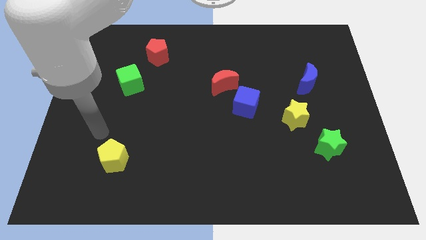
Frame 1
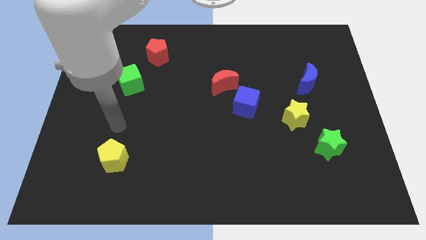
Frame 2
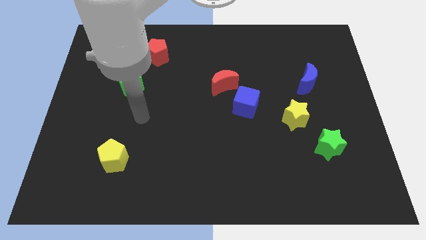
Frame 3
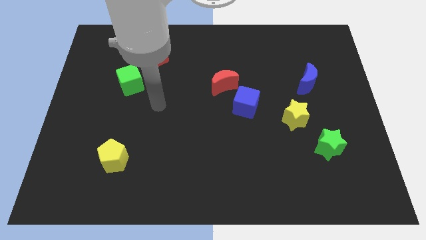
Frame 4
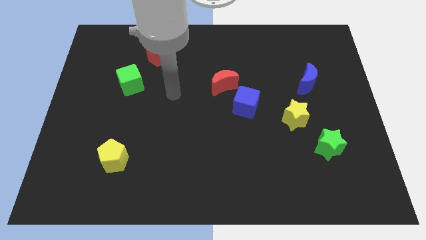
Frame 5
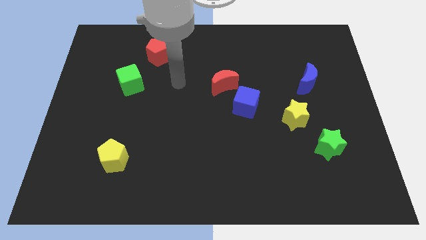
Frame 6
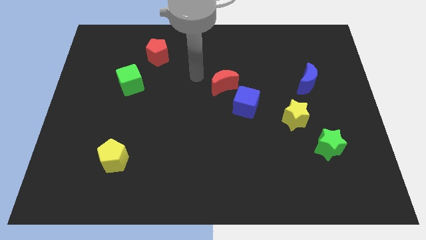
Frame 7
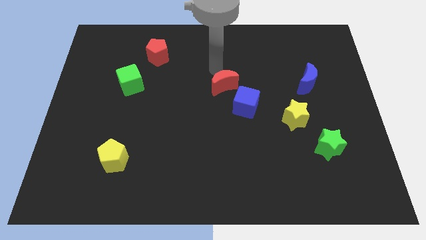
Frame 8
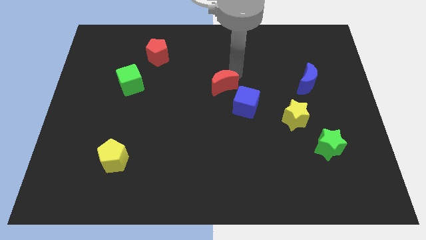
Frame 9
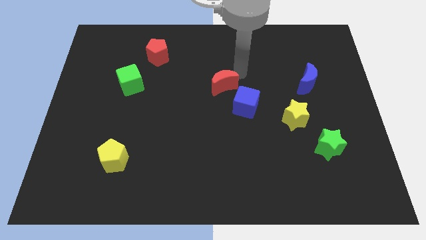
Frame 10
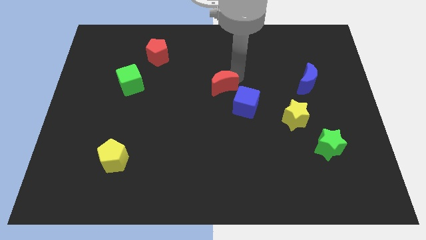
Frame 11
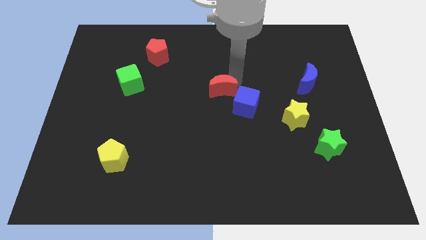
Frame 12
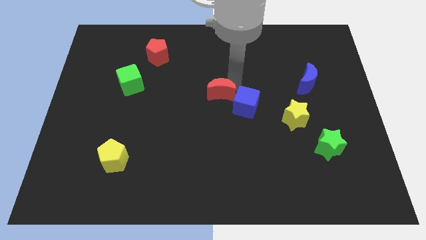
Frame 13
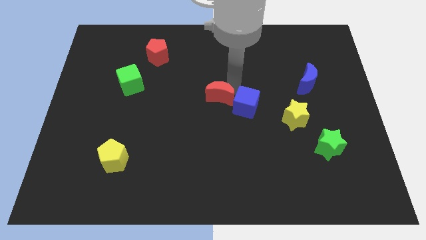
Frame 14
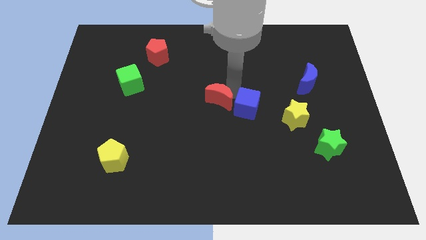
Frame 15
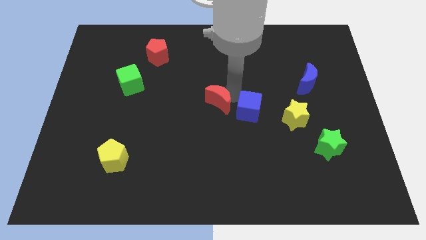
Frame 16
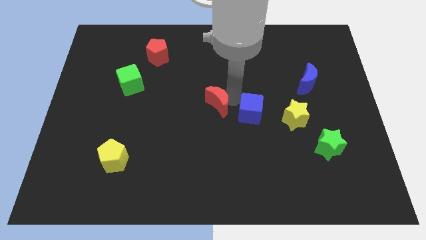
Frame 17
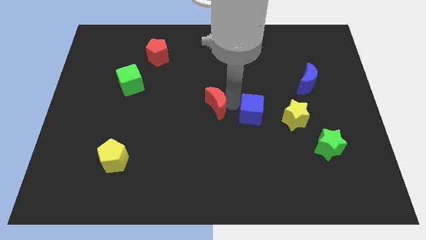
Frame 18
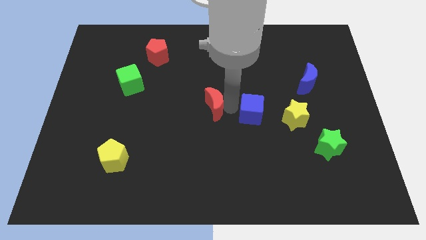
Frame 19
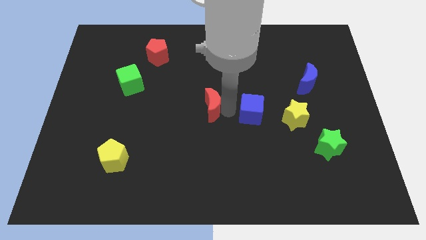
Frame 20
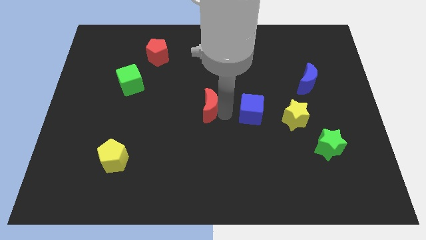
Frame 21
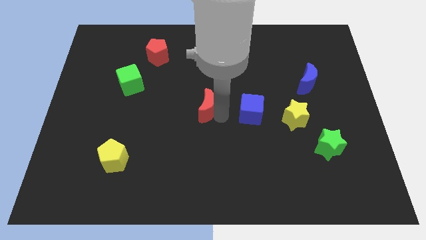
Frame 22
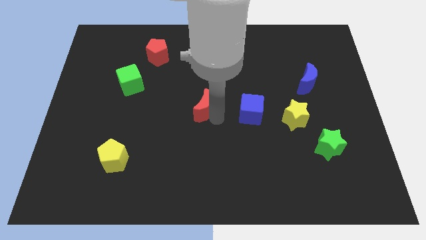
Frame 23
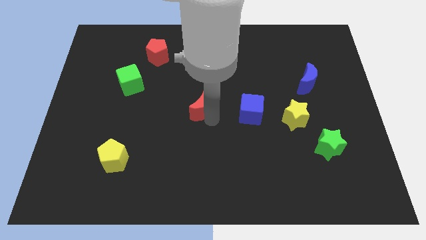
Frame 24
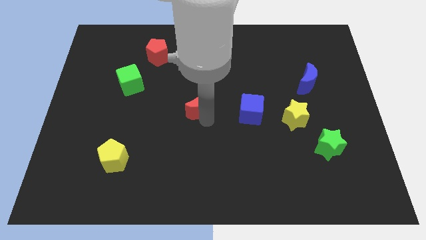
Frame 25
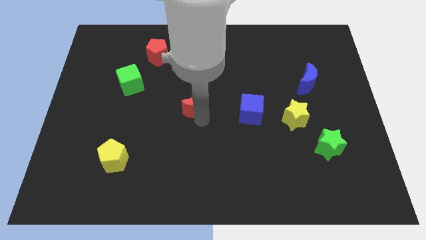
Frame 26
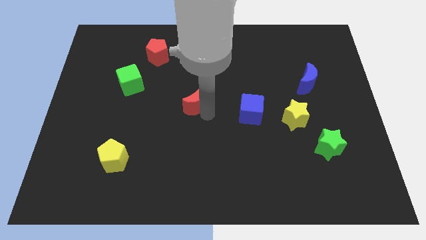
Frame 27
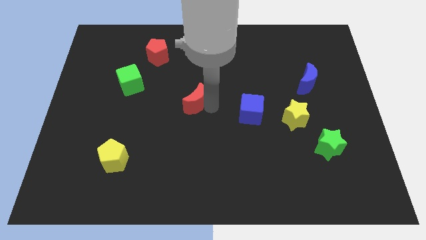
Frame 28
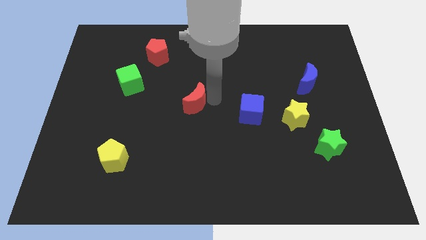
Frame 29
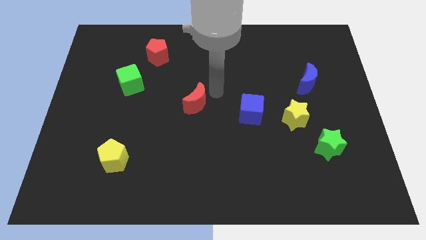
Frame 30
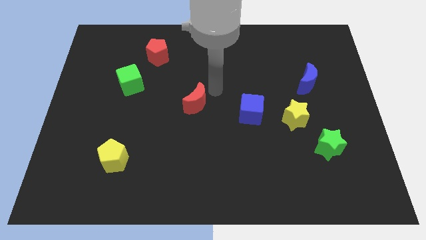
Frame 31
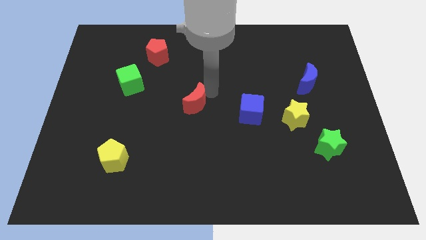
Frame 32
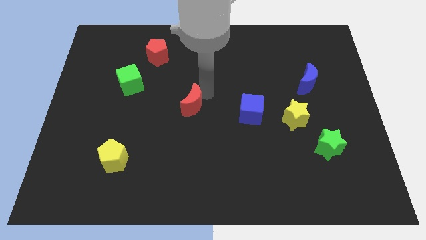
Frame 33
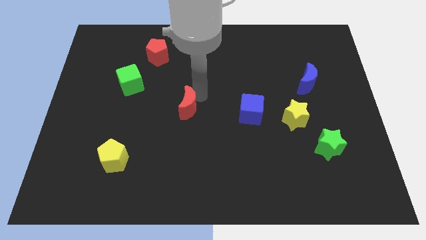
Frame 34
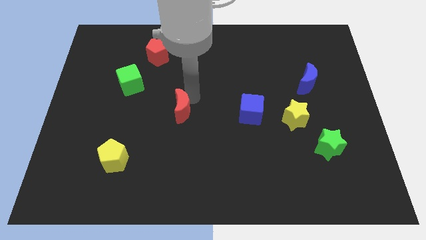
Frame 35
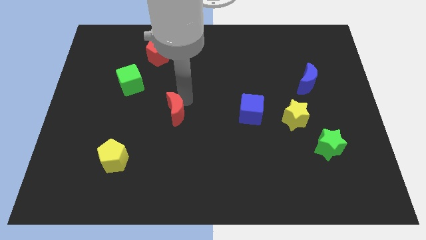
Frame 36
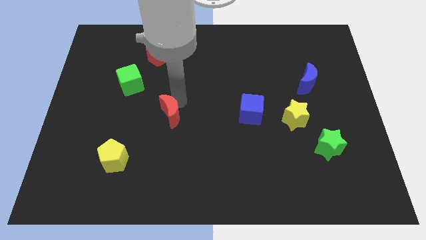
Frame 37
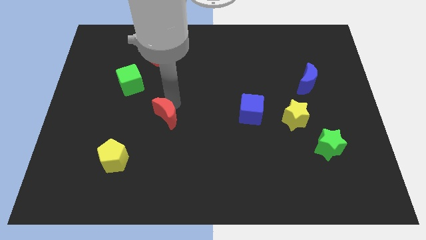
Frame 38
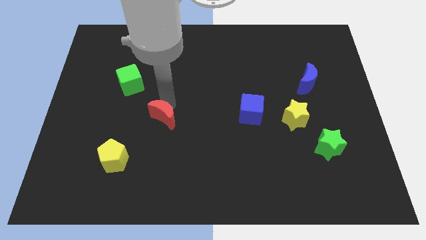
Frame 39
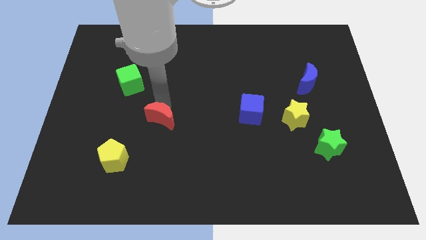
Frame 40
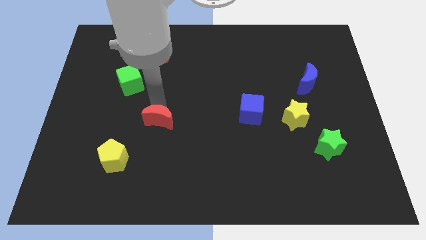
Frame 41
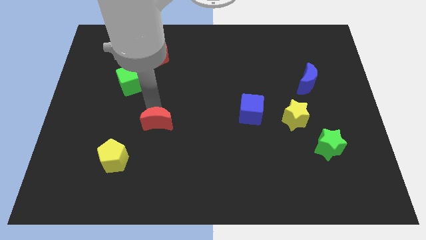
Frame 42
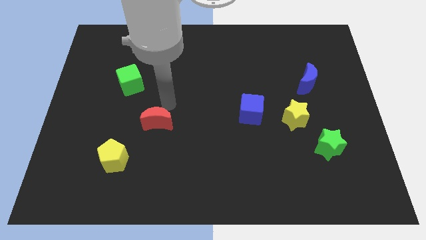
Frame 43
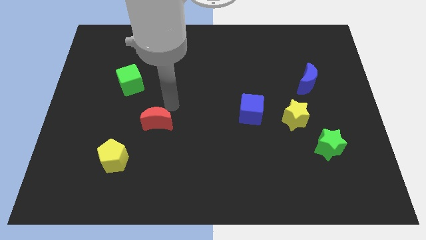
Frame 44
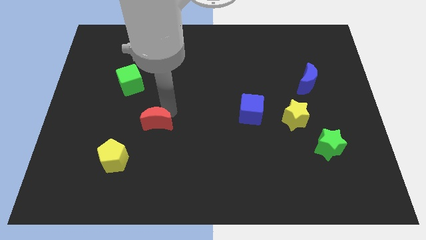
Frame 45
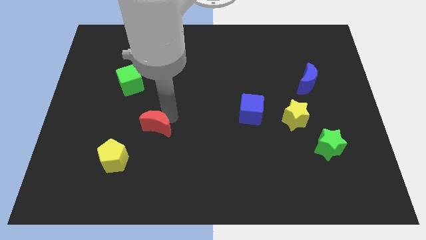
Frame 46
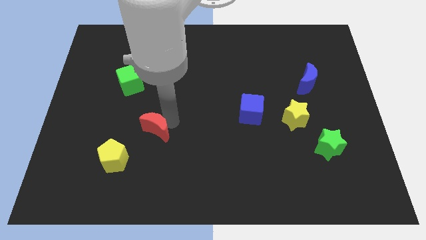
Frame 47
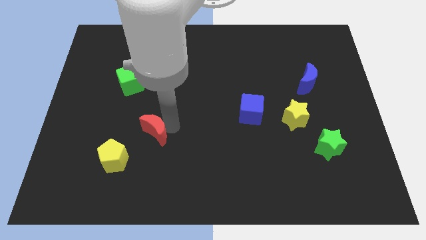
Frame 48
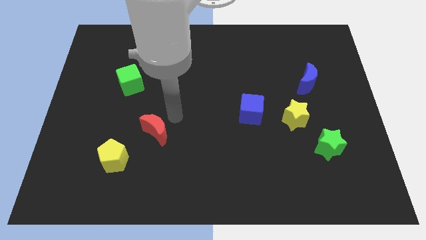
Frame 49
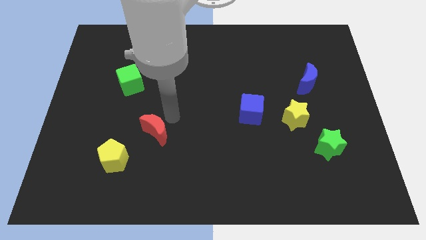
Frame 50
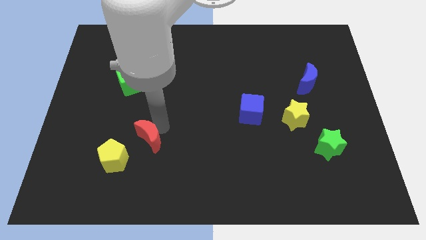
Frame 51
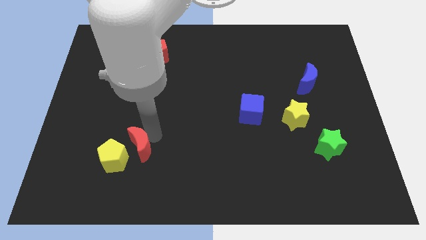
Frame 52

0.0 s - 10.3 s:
put the red moon towards the yellow pentagon

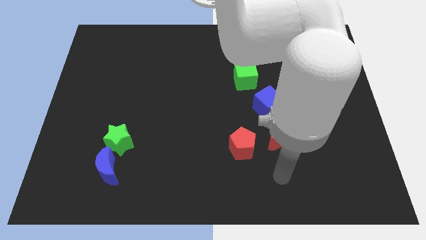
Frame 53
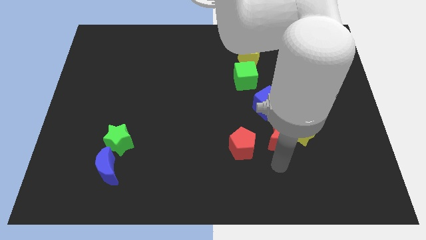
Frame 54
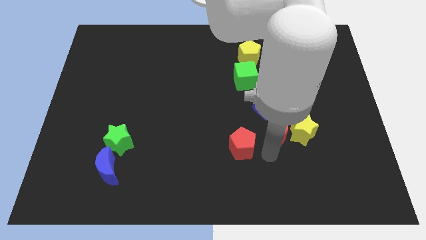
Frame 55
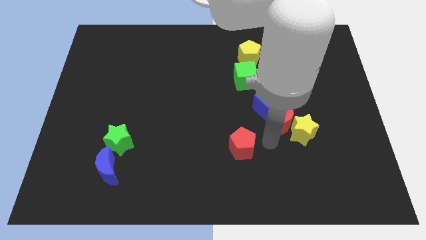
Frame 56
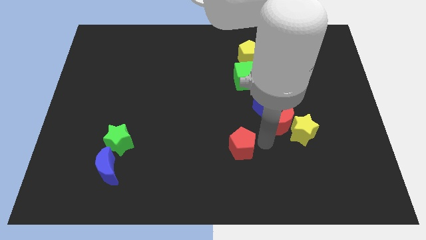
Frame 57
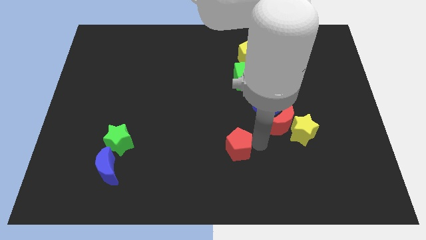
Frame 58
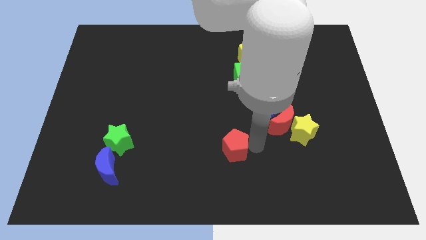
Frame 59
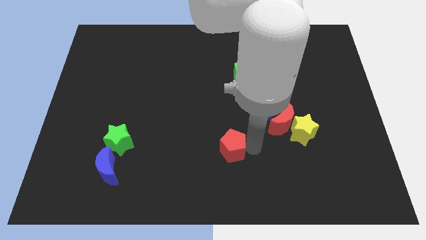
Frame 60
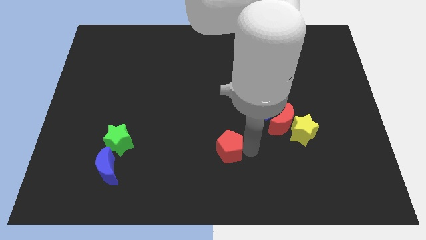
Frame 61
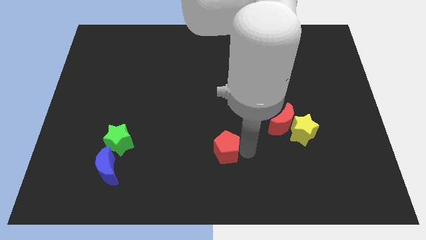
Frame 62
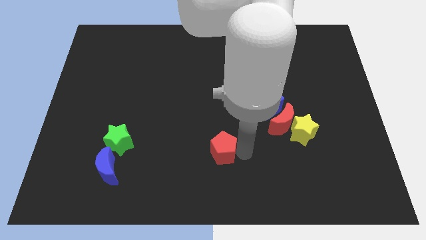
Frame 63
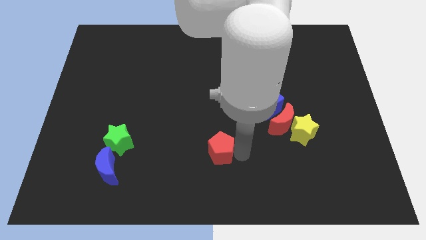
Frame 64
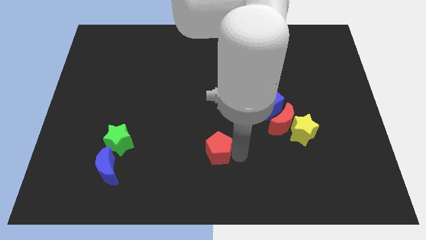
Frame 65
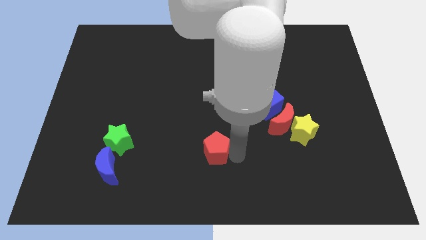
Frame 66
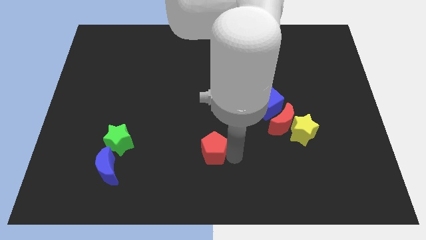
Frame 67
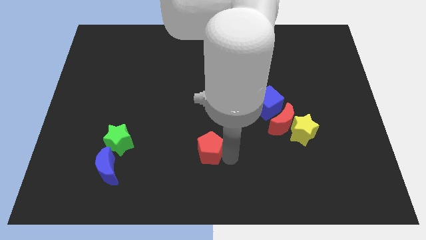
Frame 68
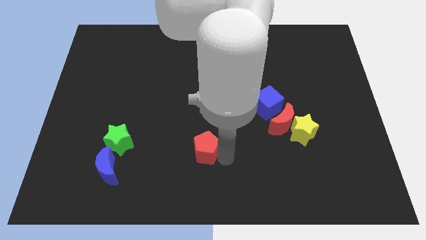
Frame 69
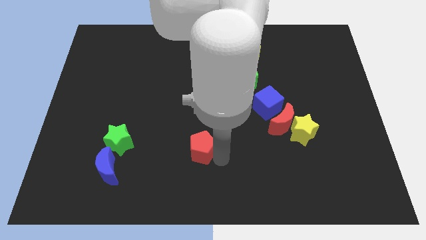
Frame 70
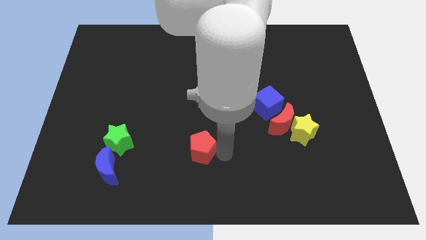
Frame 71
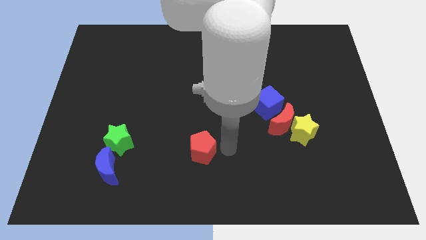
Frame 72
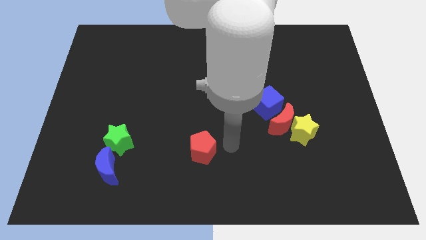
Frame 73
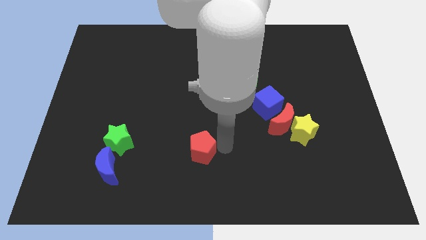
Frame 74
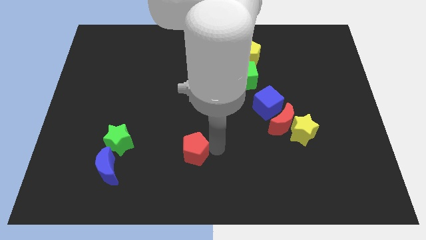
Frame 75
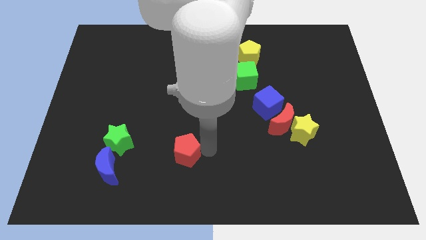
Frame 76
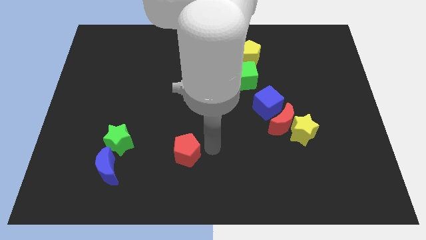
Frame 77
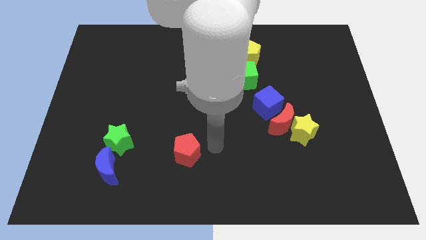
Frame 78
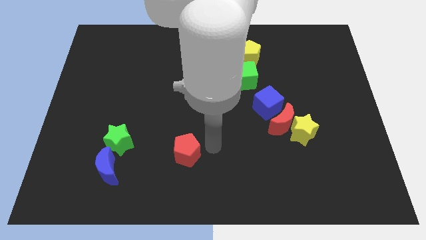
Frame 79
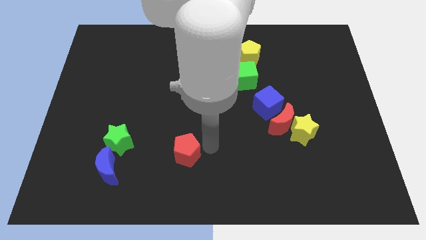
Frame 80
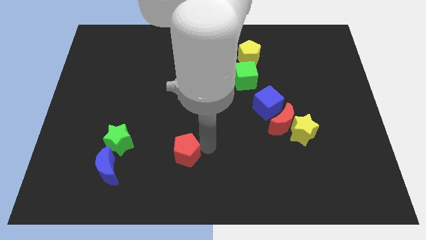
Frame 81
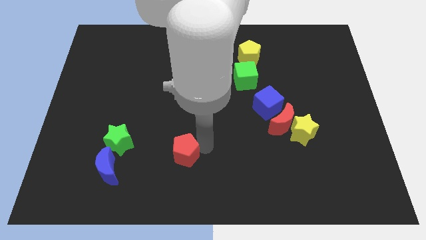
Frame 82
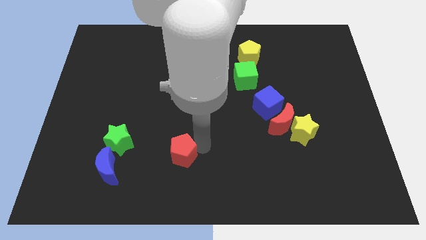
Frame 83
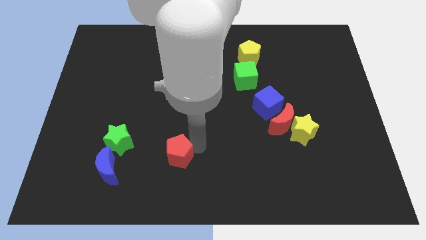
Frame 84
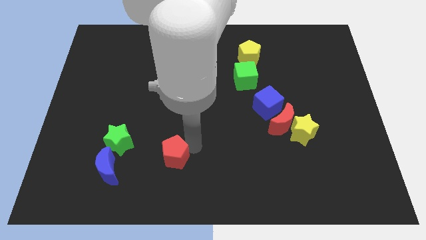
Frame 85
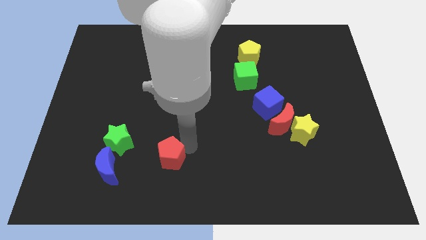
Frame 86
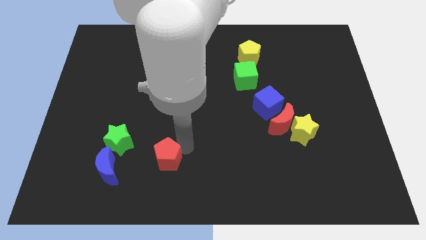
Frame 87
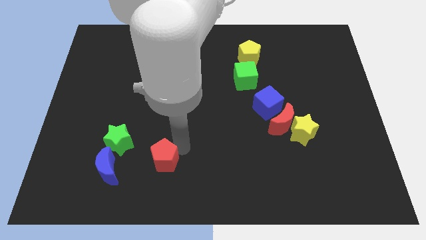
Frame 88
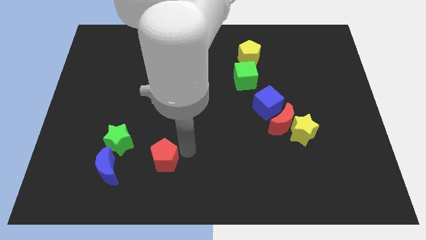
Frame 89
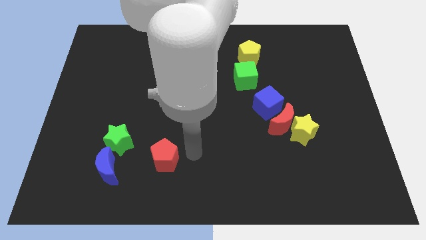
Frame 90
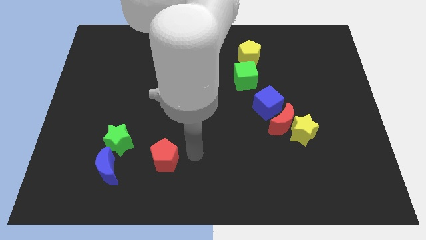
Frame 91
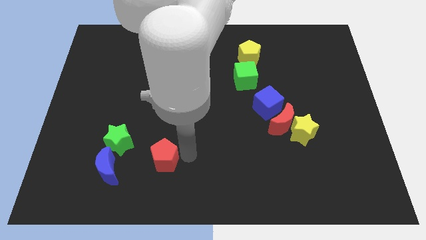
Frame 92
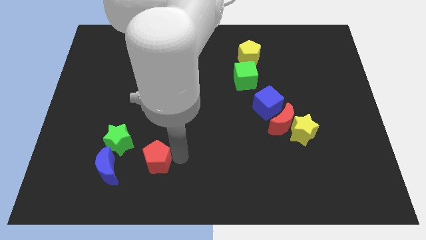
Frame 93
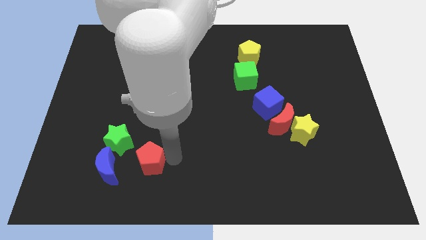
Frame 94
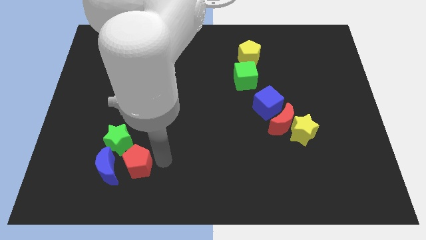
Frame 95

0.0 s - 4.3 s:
put the red pentagon towards the blue moon
